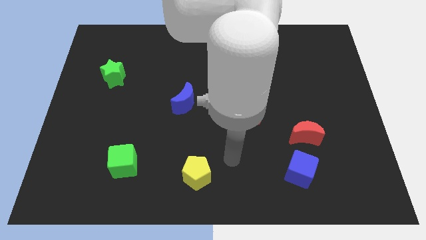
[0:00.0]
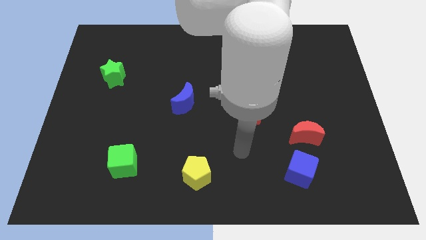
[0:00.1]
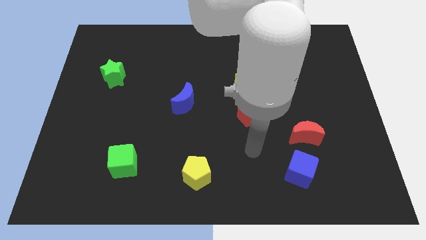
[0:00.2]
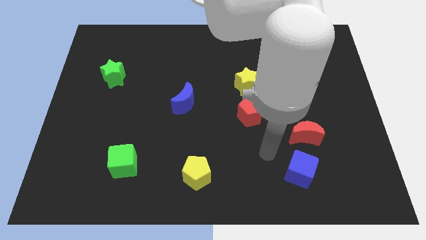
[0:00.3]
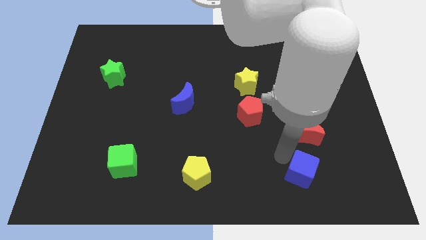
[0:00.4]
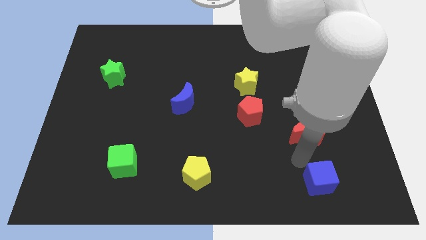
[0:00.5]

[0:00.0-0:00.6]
pull the red moon apart from the blue cube

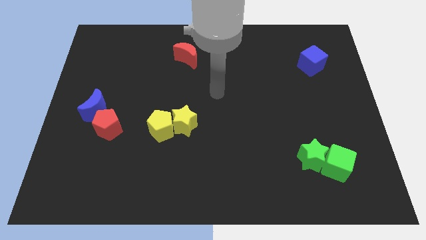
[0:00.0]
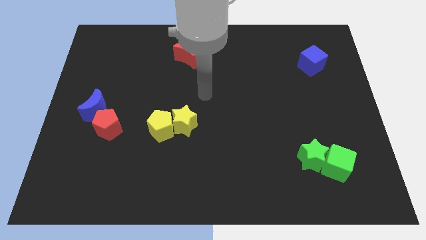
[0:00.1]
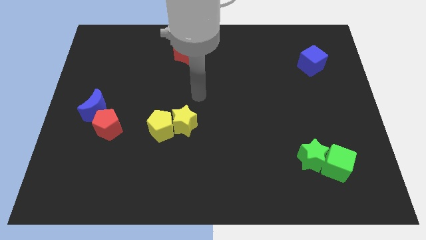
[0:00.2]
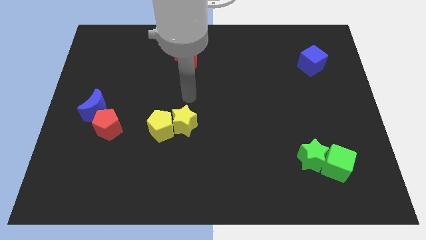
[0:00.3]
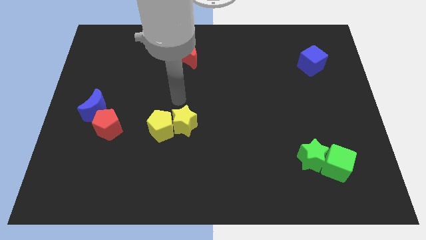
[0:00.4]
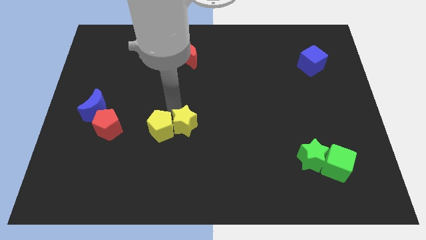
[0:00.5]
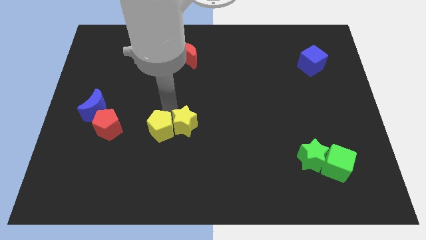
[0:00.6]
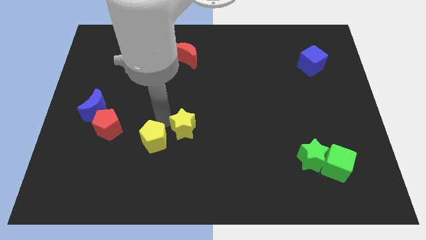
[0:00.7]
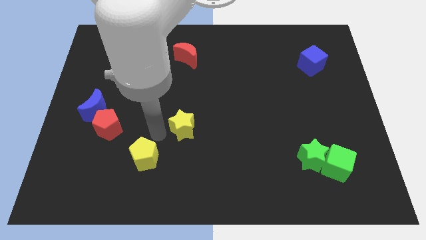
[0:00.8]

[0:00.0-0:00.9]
separate the yellow star from the yellow pentagon

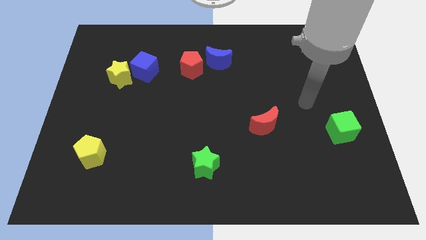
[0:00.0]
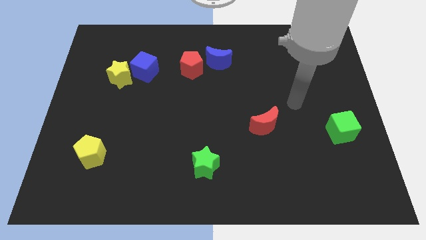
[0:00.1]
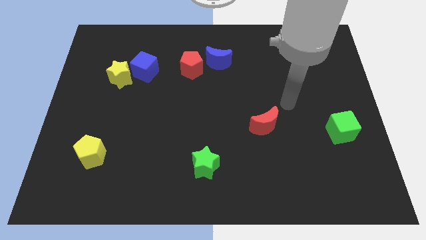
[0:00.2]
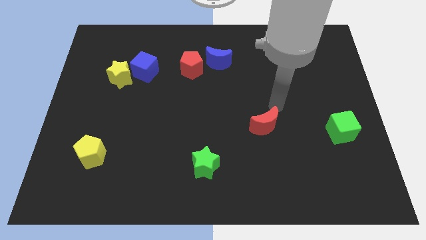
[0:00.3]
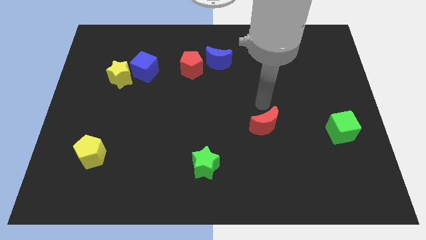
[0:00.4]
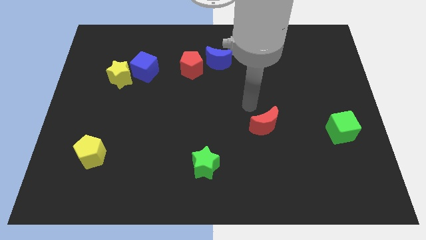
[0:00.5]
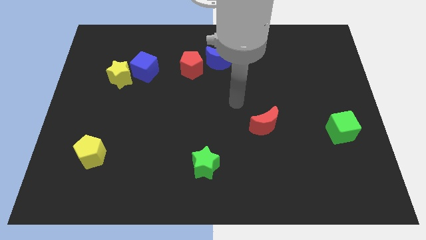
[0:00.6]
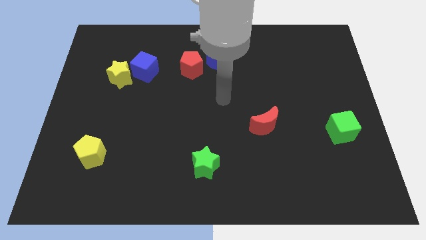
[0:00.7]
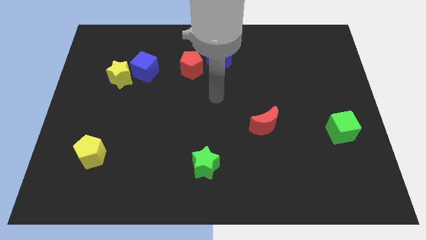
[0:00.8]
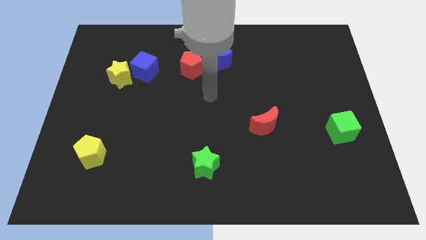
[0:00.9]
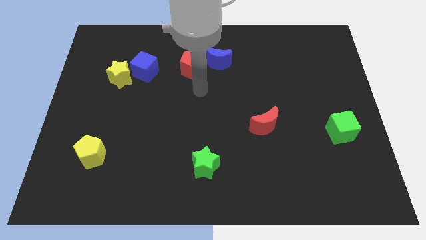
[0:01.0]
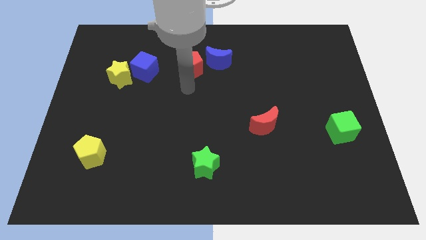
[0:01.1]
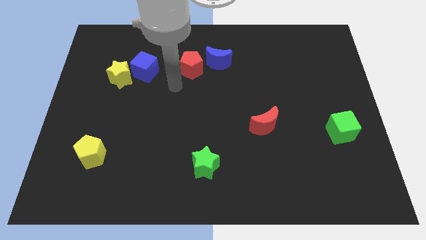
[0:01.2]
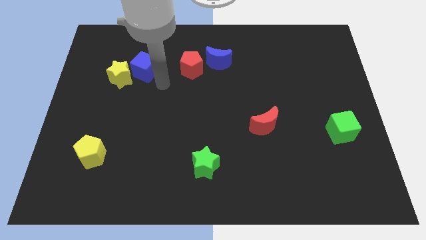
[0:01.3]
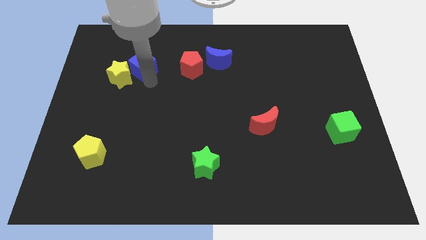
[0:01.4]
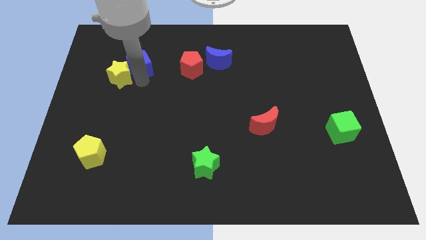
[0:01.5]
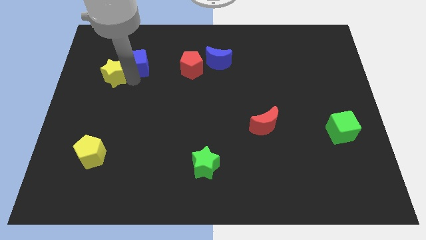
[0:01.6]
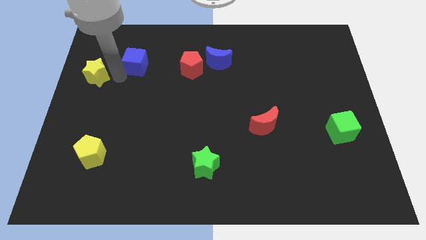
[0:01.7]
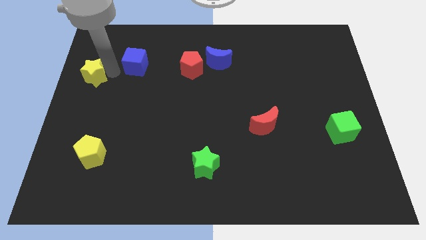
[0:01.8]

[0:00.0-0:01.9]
pull the blue cube apart from the yellow star

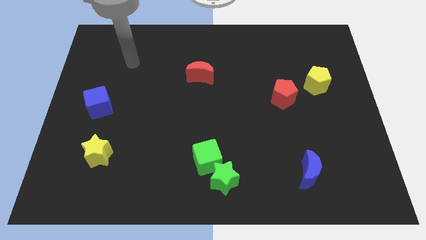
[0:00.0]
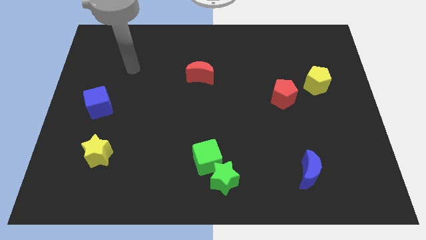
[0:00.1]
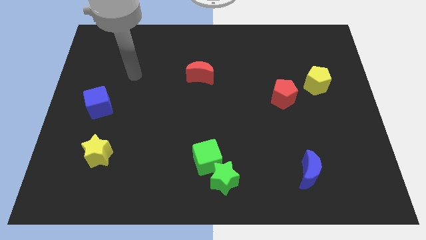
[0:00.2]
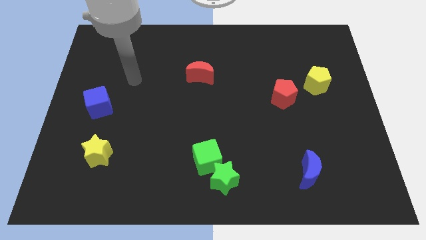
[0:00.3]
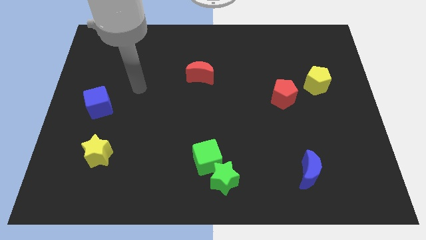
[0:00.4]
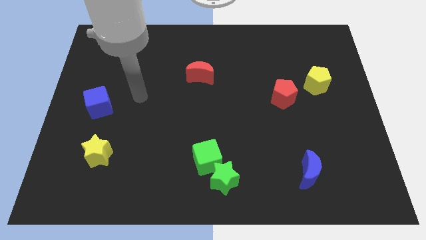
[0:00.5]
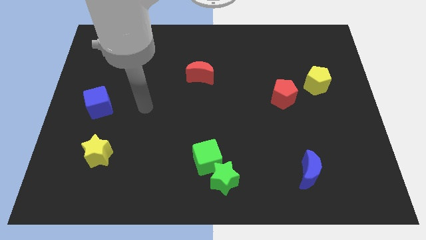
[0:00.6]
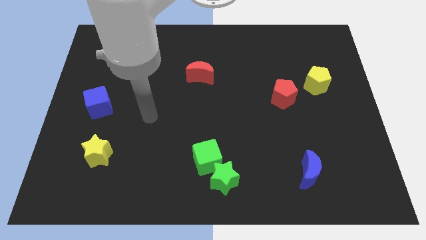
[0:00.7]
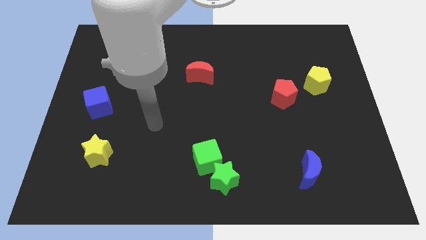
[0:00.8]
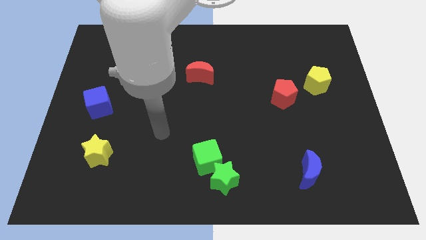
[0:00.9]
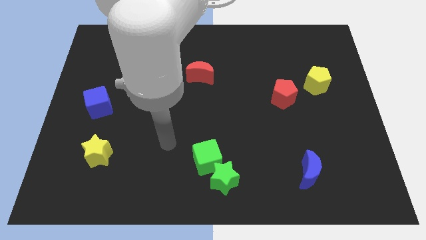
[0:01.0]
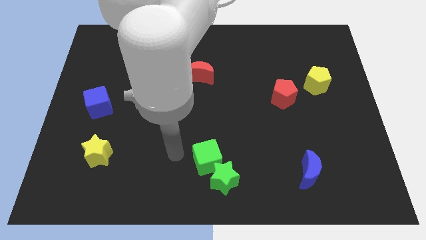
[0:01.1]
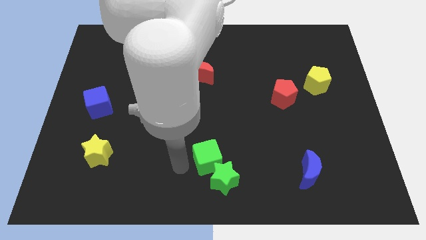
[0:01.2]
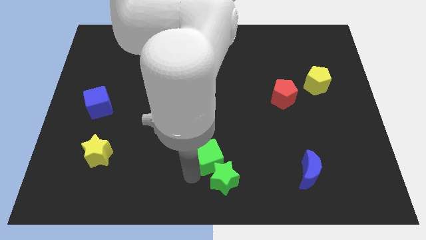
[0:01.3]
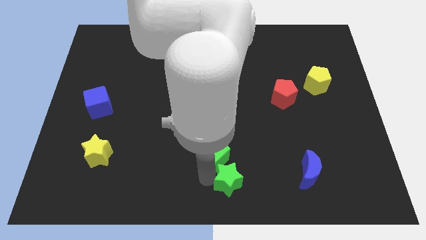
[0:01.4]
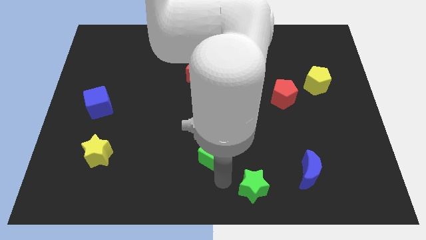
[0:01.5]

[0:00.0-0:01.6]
separate the green cube from the green star

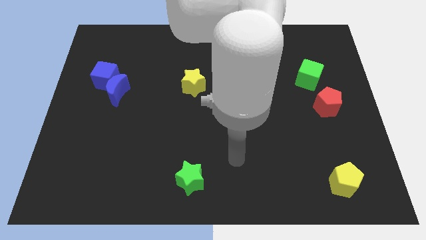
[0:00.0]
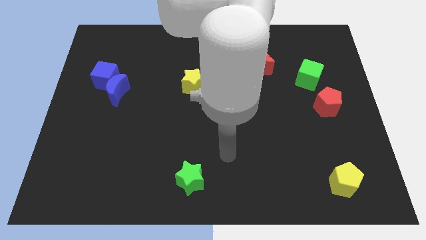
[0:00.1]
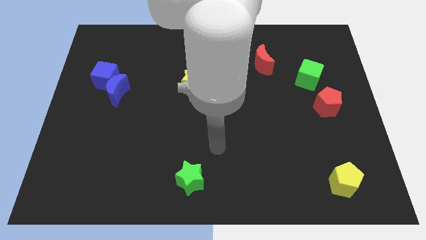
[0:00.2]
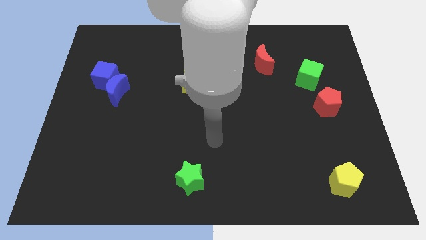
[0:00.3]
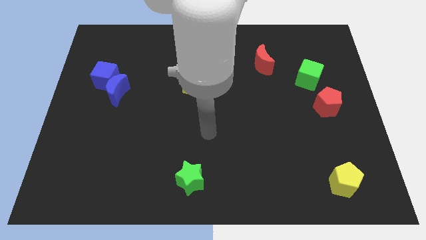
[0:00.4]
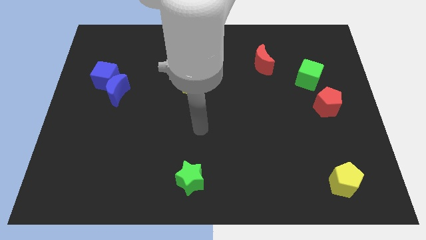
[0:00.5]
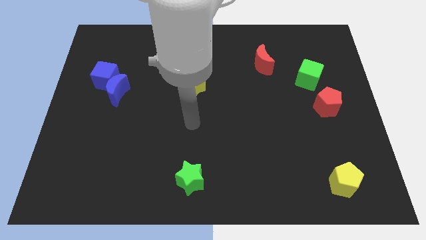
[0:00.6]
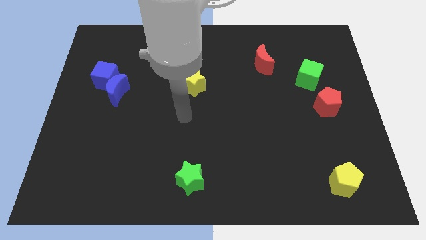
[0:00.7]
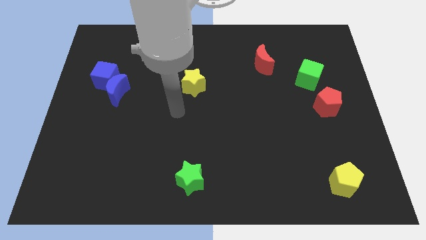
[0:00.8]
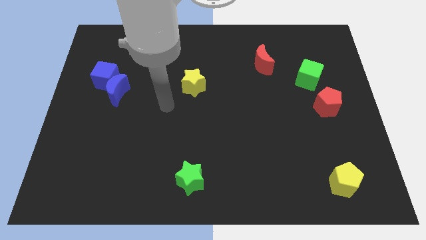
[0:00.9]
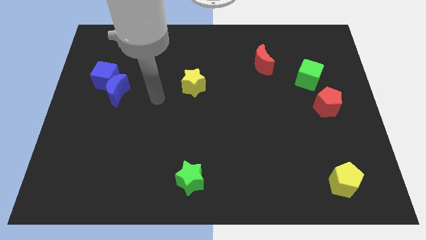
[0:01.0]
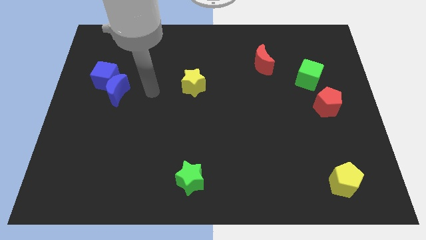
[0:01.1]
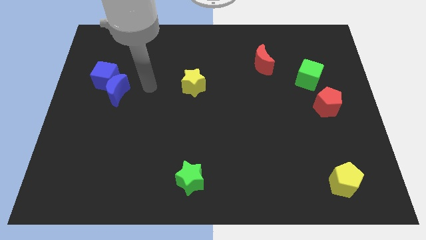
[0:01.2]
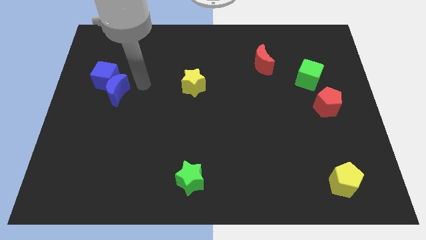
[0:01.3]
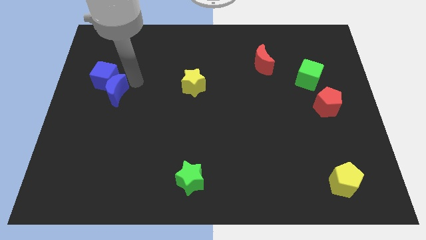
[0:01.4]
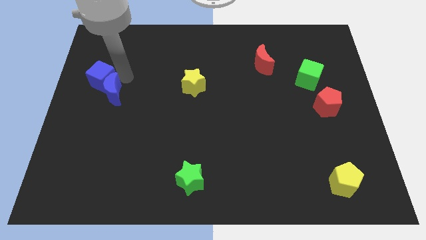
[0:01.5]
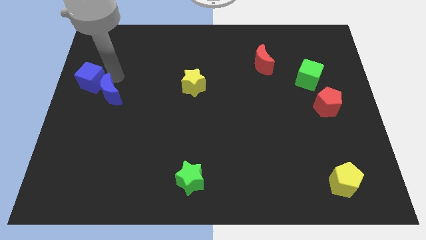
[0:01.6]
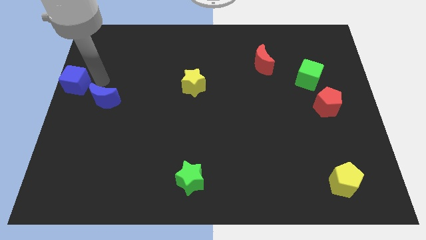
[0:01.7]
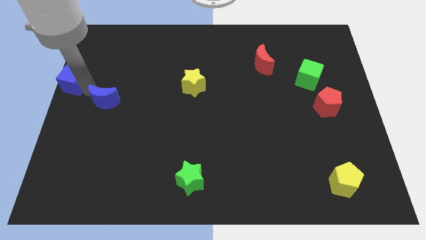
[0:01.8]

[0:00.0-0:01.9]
separate the blue moon from the blue cube

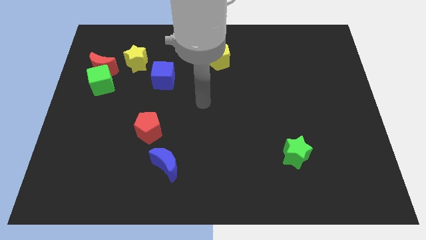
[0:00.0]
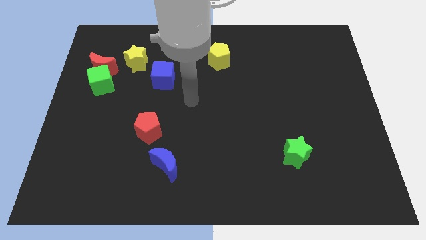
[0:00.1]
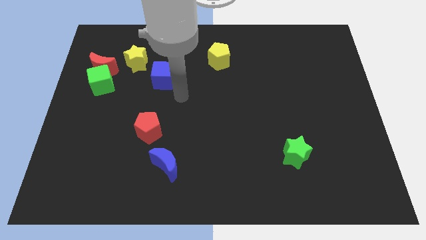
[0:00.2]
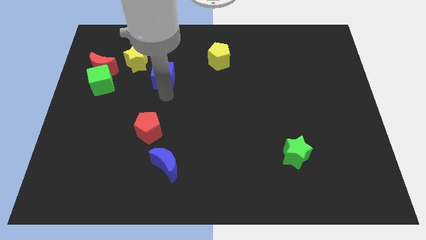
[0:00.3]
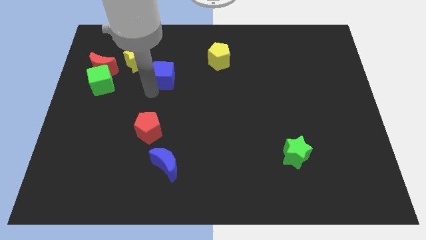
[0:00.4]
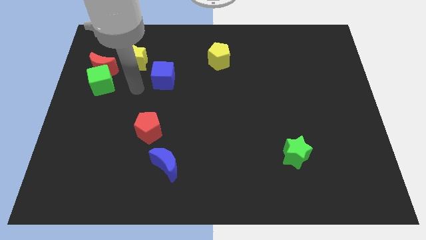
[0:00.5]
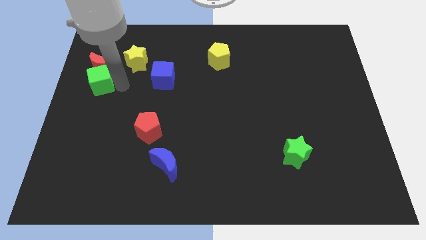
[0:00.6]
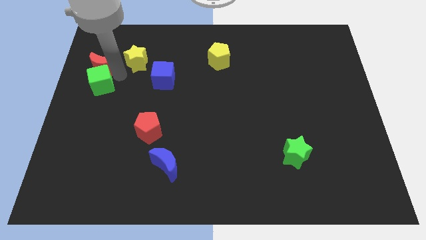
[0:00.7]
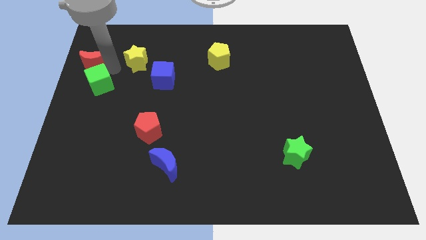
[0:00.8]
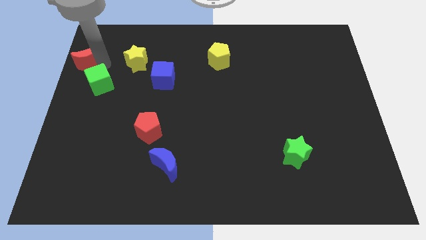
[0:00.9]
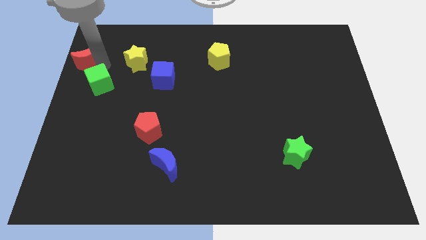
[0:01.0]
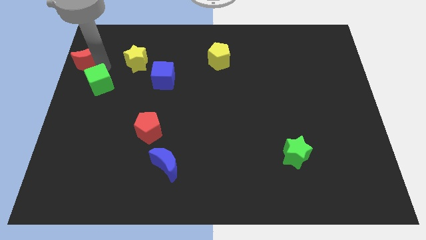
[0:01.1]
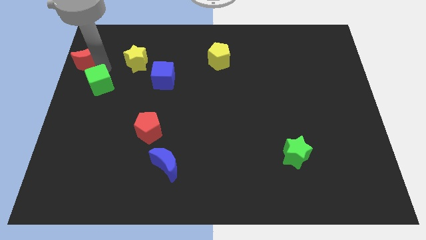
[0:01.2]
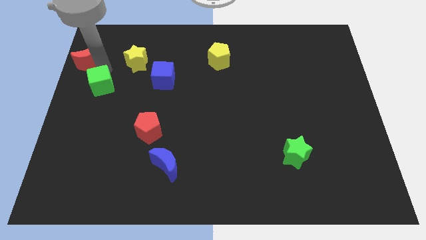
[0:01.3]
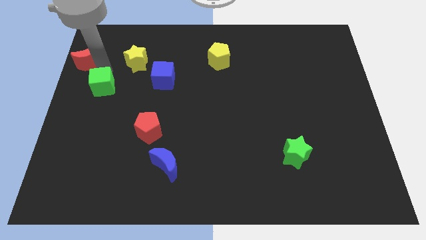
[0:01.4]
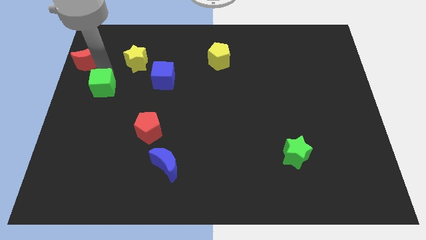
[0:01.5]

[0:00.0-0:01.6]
pull the green cube apart from the red moon

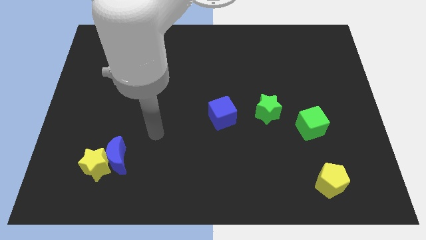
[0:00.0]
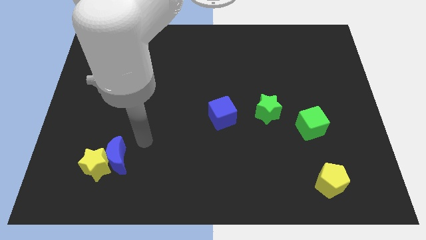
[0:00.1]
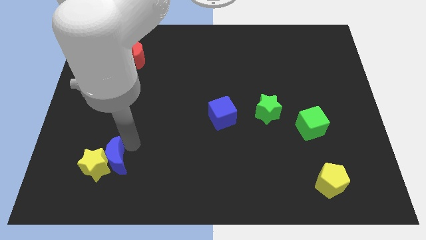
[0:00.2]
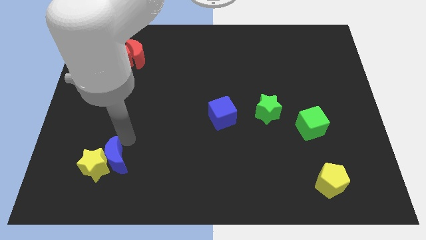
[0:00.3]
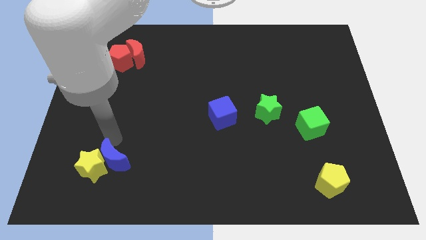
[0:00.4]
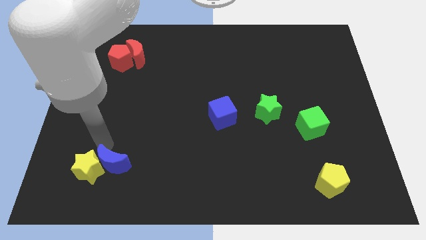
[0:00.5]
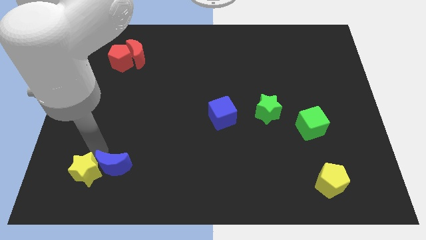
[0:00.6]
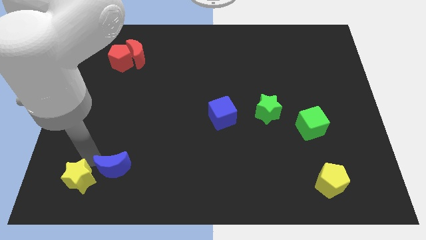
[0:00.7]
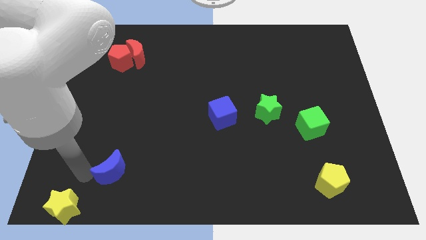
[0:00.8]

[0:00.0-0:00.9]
move the blue moon away from the yellow star
